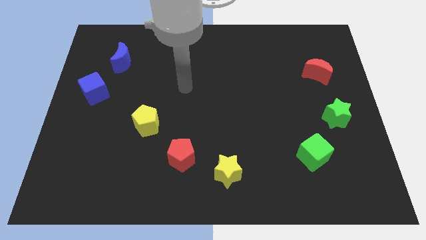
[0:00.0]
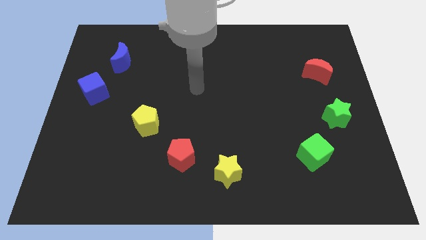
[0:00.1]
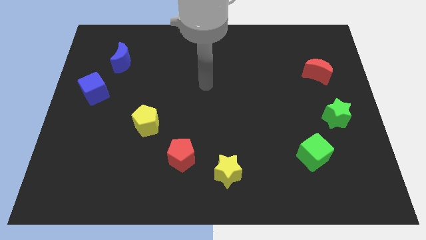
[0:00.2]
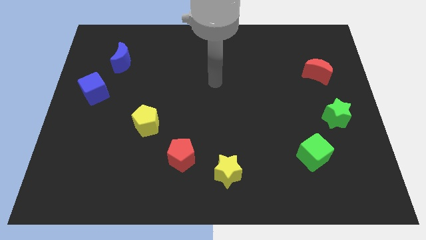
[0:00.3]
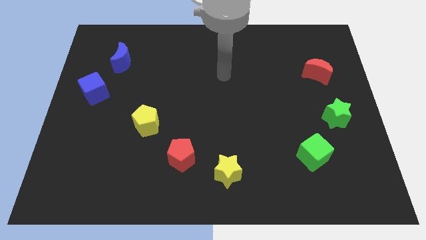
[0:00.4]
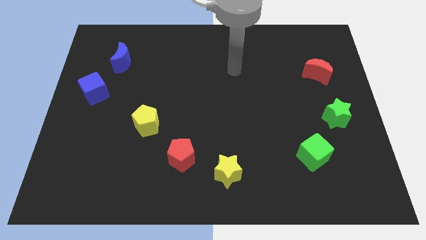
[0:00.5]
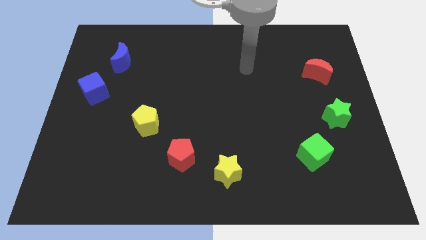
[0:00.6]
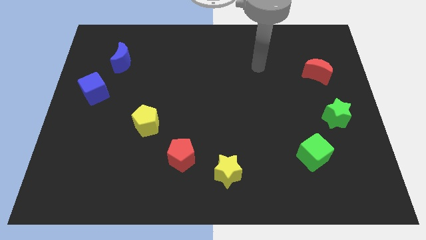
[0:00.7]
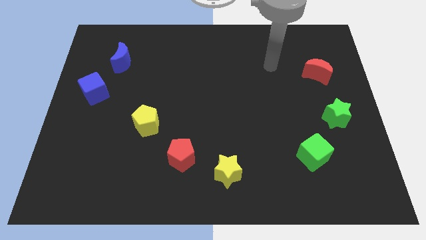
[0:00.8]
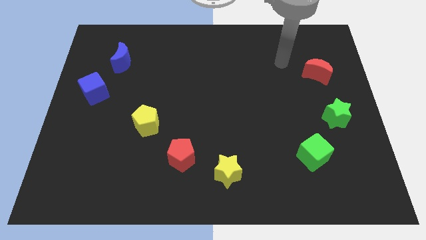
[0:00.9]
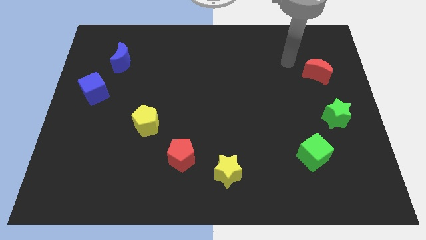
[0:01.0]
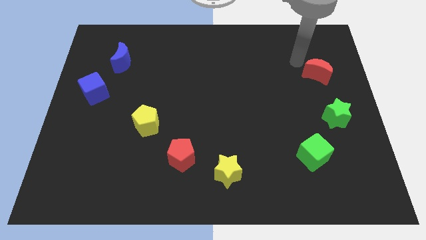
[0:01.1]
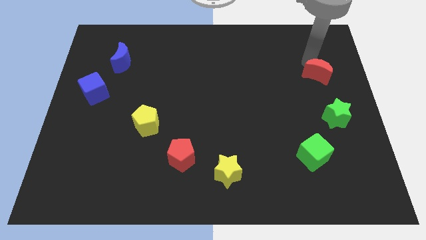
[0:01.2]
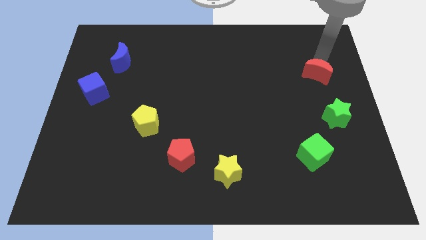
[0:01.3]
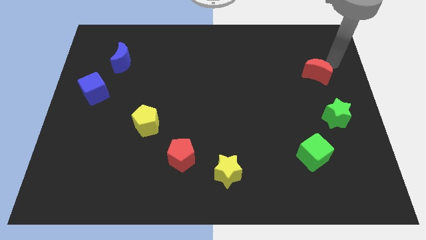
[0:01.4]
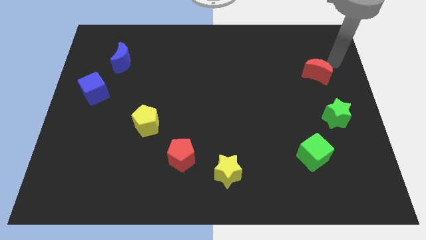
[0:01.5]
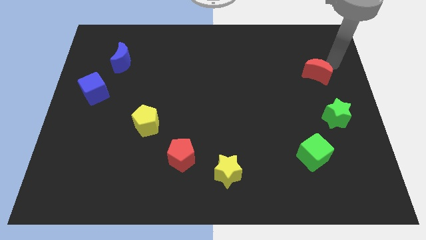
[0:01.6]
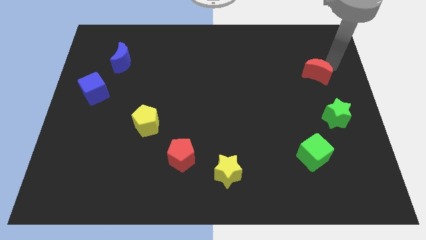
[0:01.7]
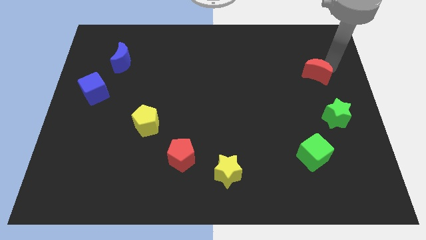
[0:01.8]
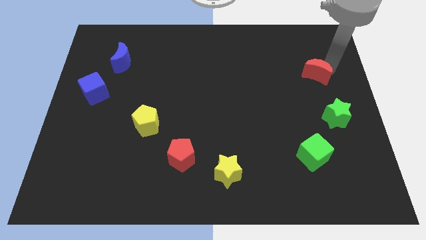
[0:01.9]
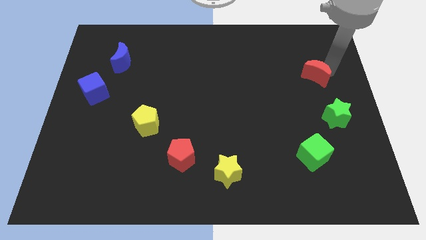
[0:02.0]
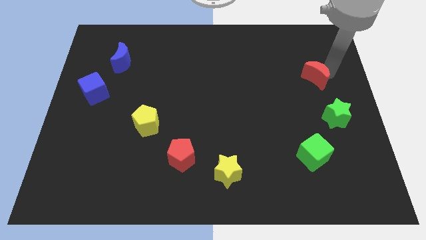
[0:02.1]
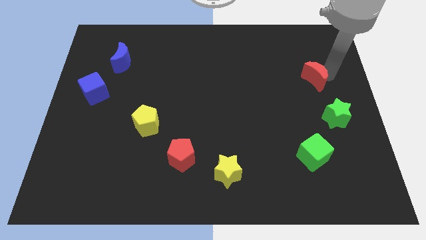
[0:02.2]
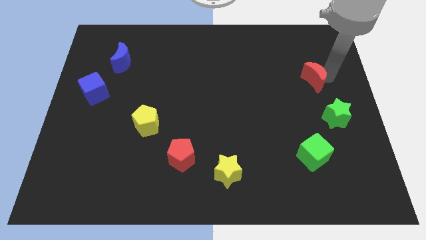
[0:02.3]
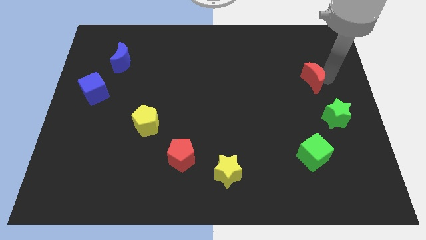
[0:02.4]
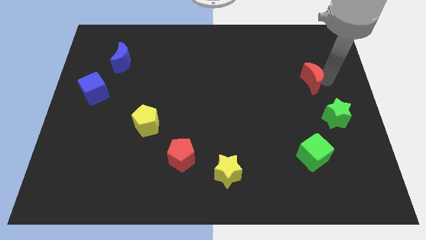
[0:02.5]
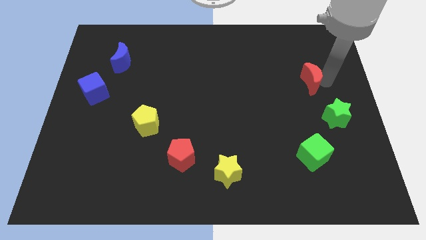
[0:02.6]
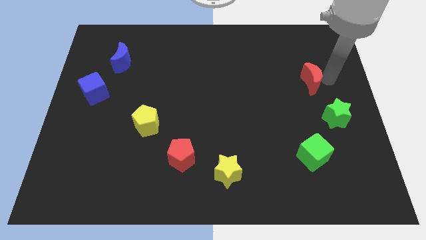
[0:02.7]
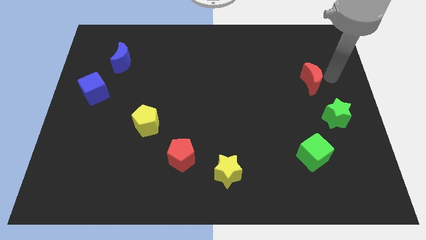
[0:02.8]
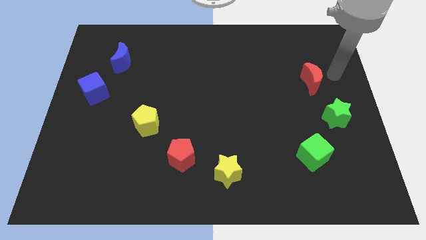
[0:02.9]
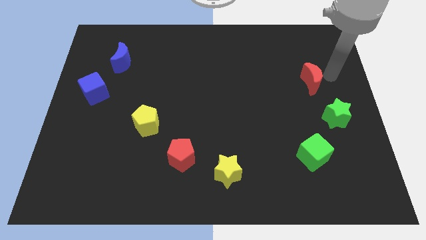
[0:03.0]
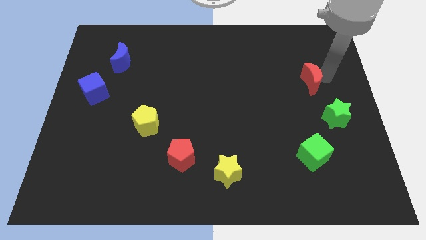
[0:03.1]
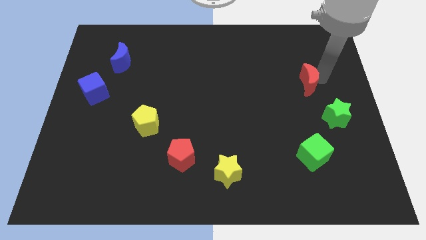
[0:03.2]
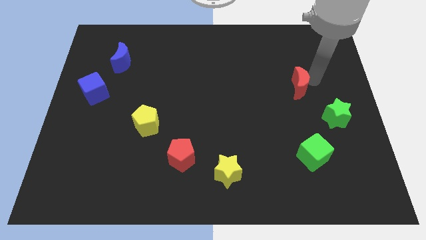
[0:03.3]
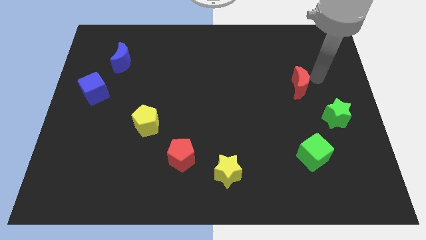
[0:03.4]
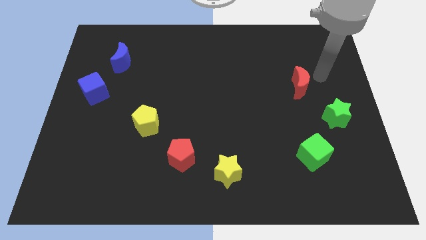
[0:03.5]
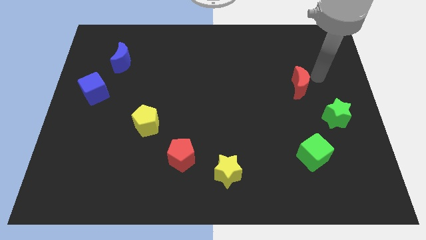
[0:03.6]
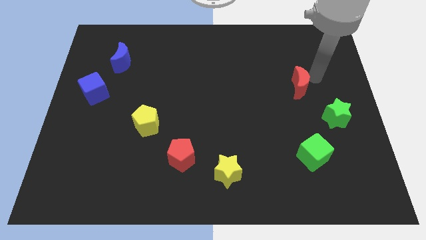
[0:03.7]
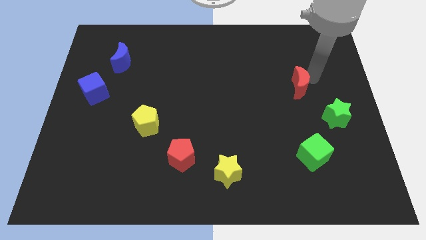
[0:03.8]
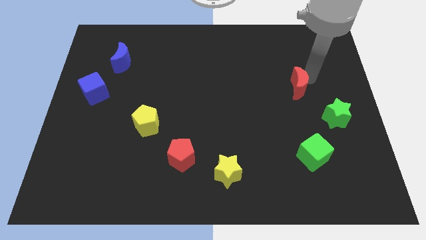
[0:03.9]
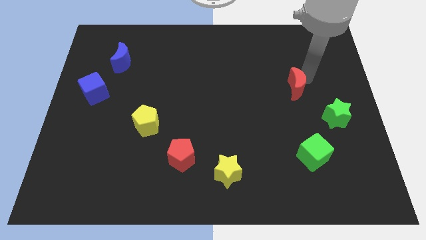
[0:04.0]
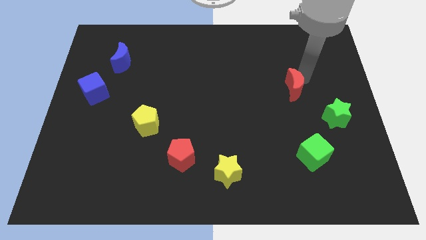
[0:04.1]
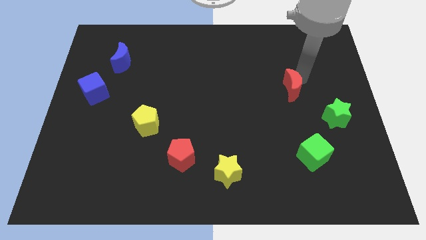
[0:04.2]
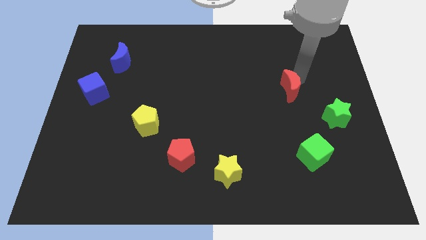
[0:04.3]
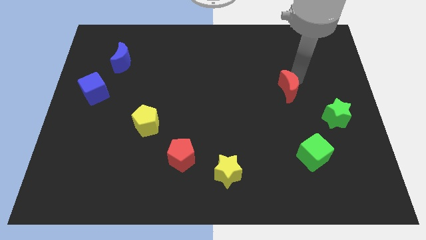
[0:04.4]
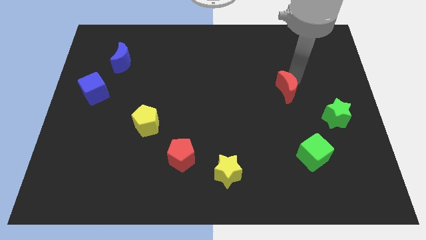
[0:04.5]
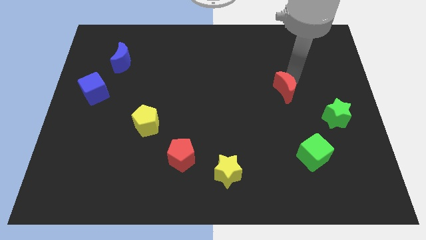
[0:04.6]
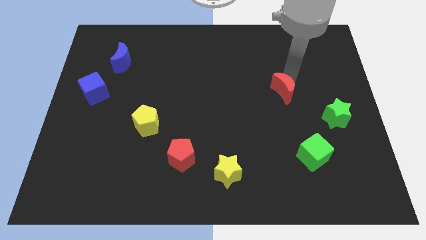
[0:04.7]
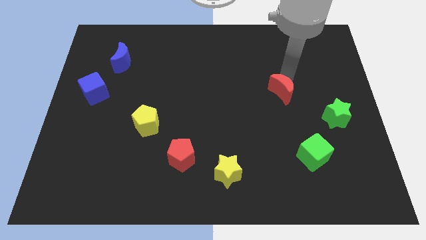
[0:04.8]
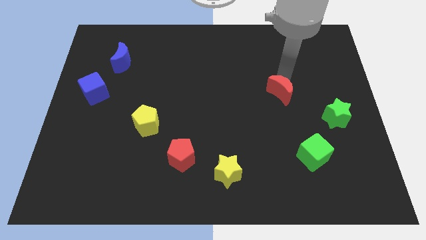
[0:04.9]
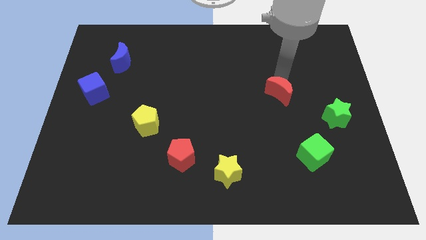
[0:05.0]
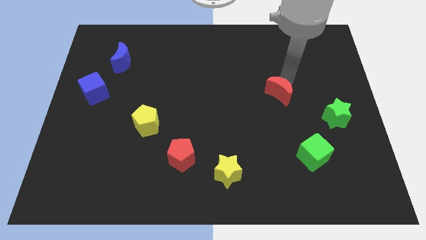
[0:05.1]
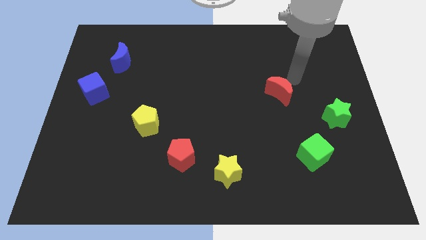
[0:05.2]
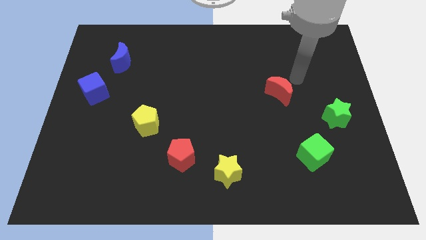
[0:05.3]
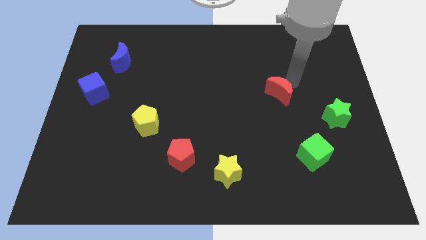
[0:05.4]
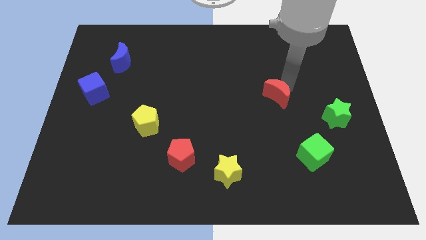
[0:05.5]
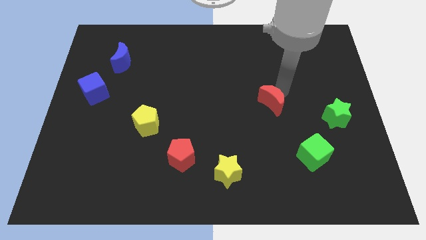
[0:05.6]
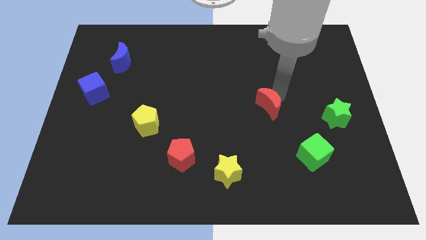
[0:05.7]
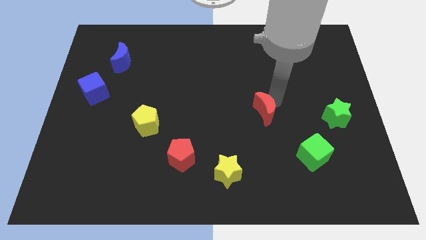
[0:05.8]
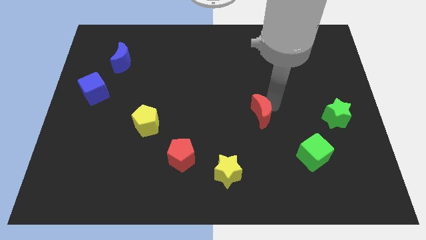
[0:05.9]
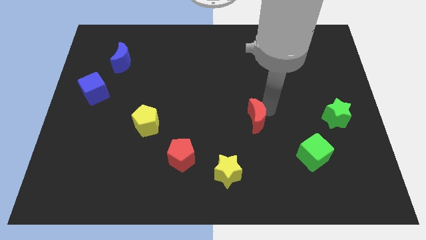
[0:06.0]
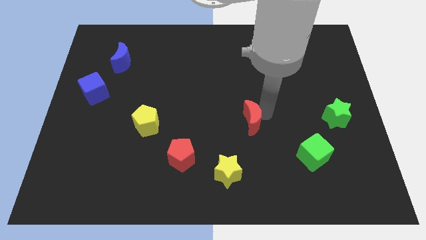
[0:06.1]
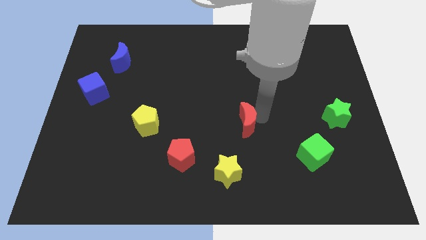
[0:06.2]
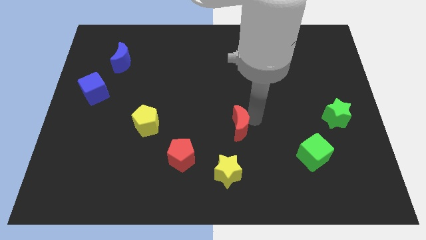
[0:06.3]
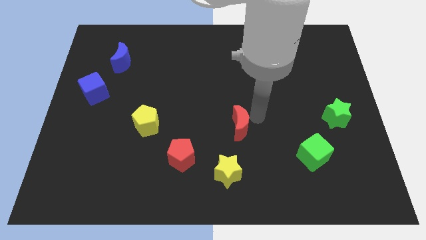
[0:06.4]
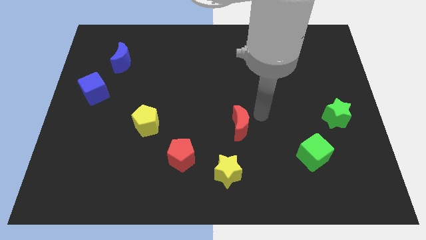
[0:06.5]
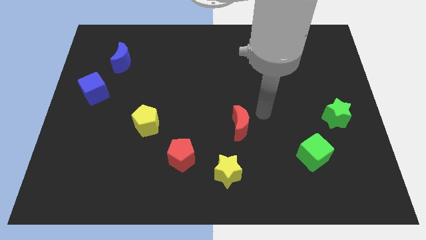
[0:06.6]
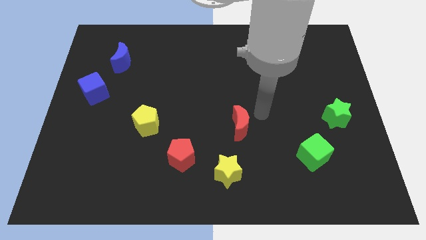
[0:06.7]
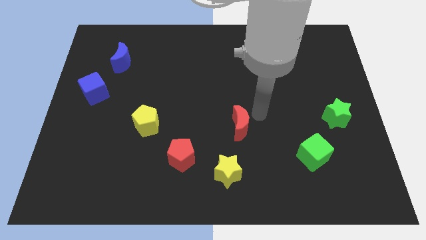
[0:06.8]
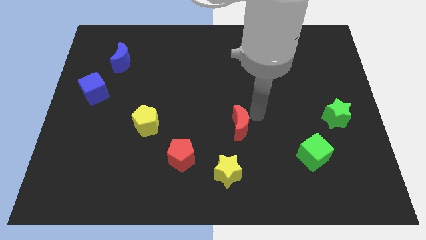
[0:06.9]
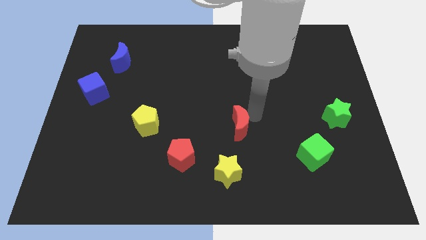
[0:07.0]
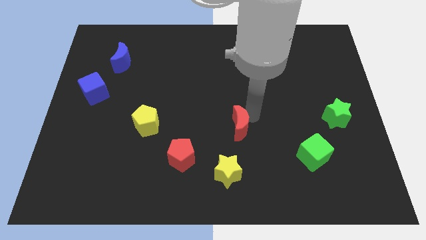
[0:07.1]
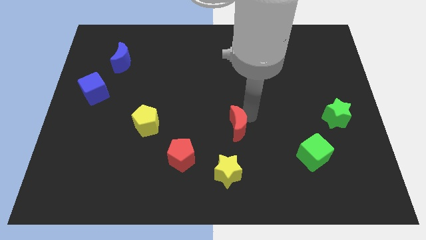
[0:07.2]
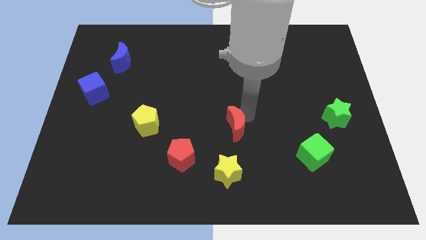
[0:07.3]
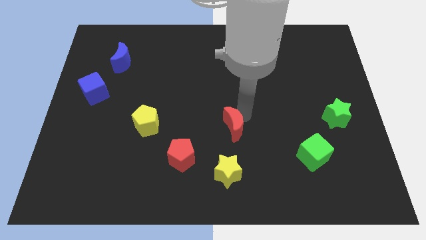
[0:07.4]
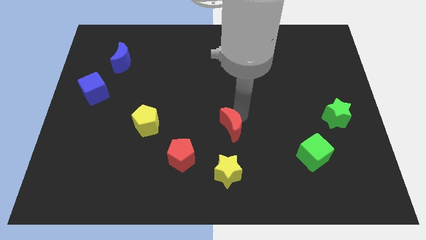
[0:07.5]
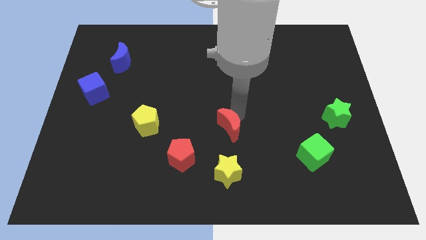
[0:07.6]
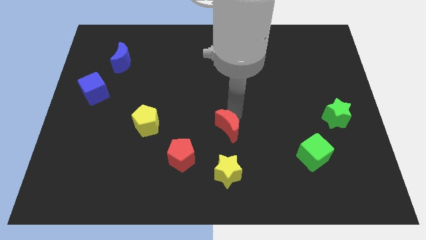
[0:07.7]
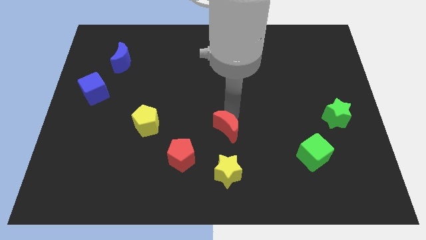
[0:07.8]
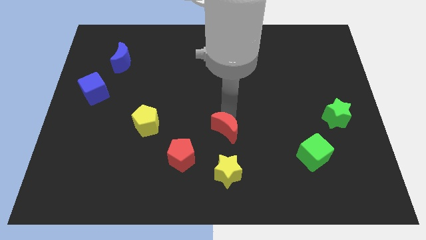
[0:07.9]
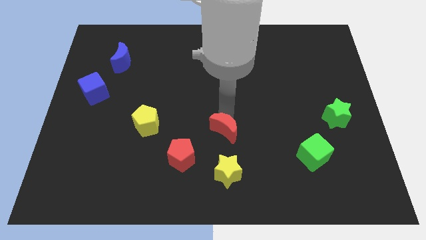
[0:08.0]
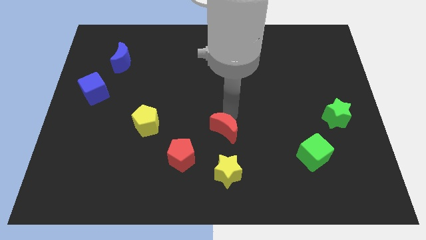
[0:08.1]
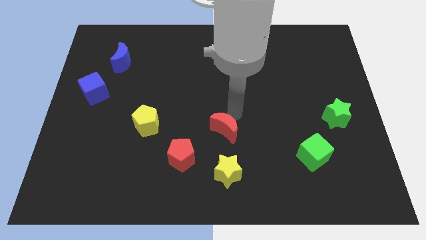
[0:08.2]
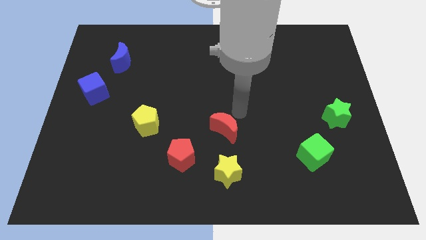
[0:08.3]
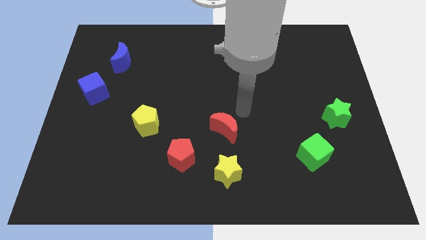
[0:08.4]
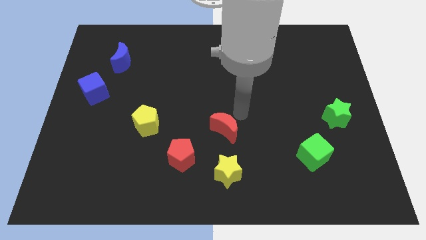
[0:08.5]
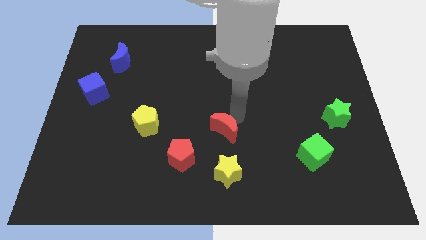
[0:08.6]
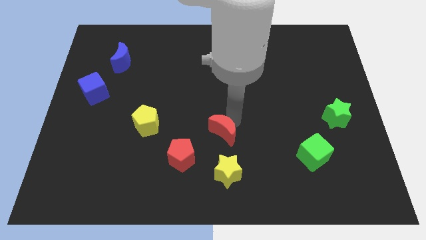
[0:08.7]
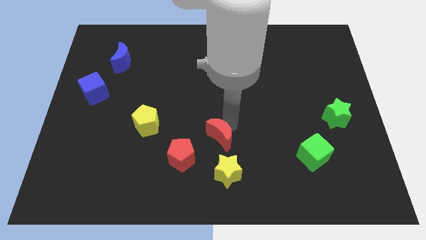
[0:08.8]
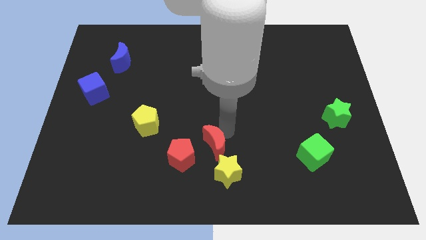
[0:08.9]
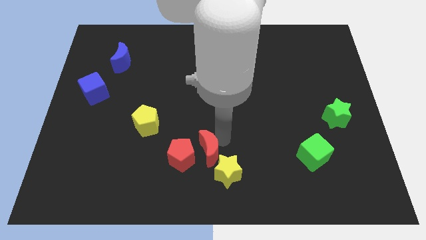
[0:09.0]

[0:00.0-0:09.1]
push the red moon next to the red pentagon
